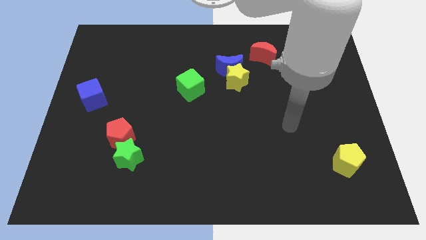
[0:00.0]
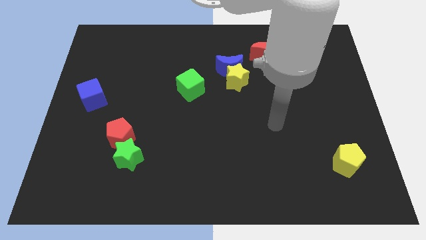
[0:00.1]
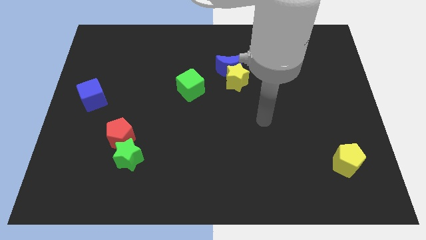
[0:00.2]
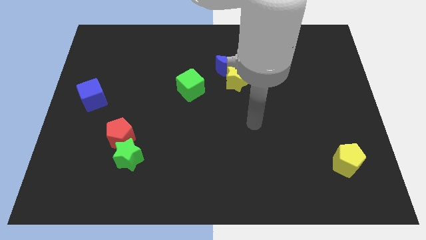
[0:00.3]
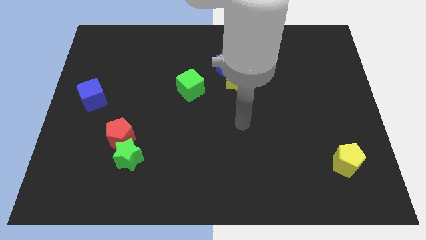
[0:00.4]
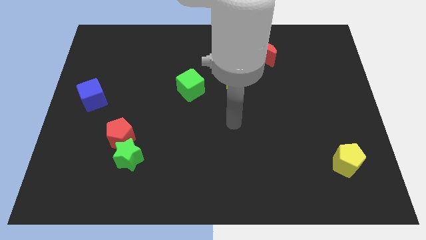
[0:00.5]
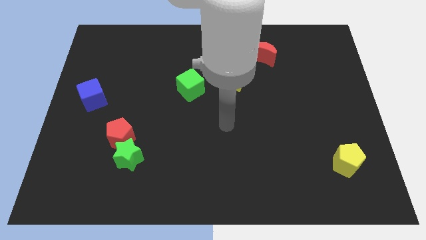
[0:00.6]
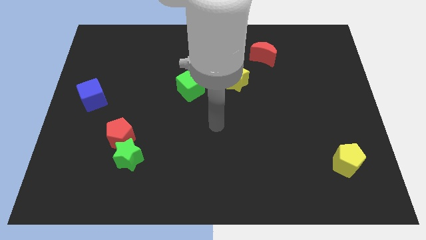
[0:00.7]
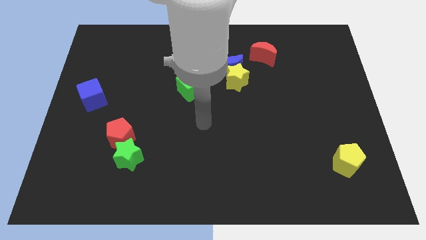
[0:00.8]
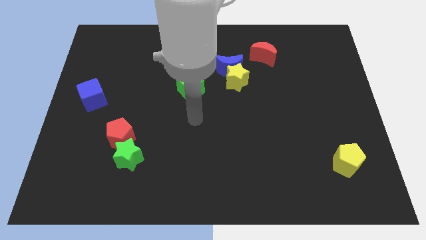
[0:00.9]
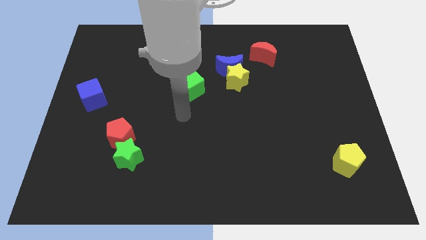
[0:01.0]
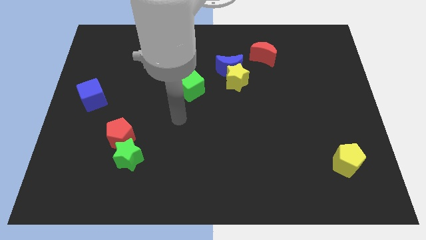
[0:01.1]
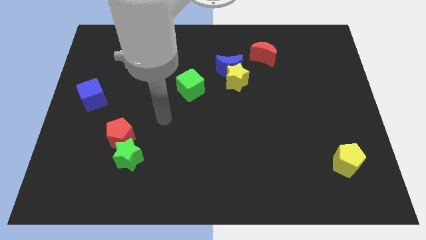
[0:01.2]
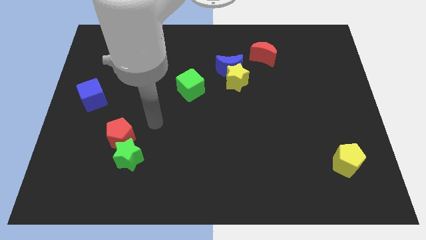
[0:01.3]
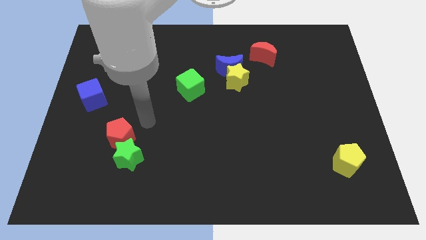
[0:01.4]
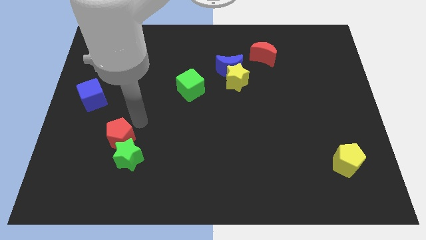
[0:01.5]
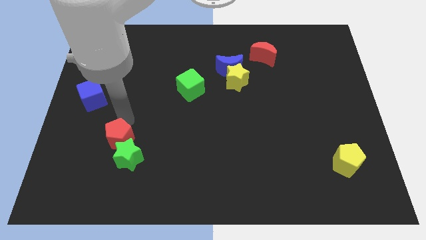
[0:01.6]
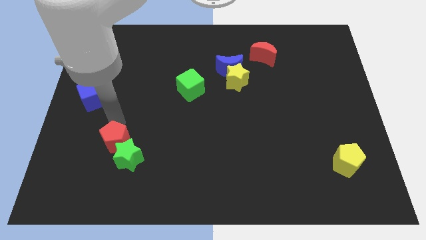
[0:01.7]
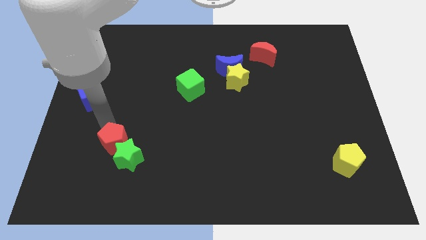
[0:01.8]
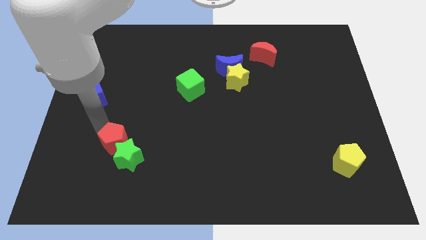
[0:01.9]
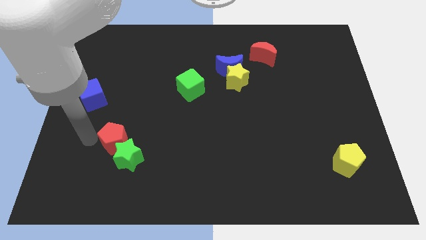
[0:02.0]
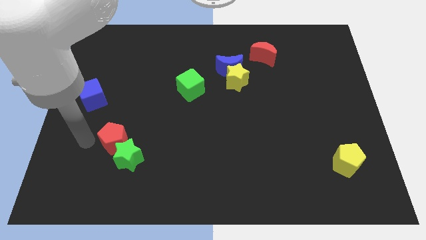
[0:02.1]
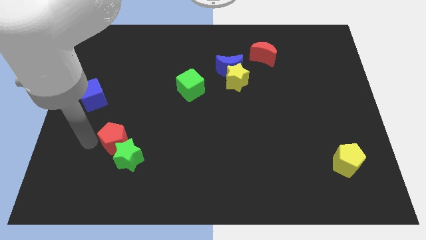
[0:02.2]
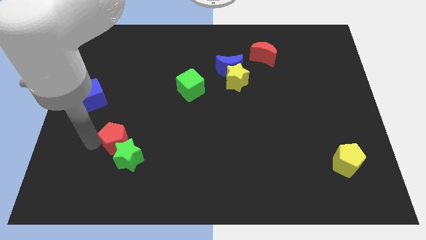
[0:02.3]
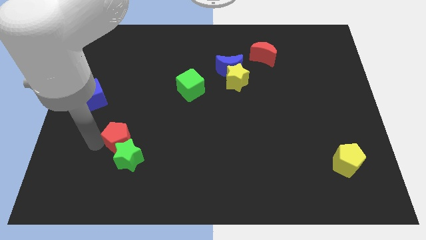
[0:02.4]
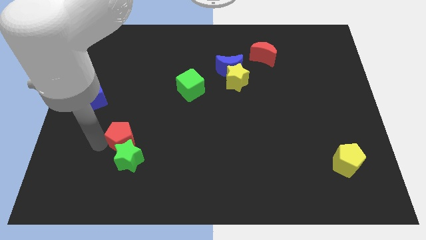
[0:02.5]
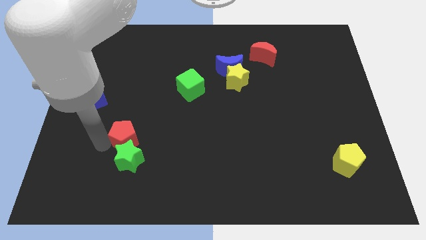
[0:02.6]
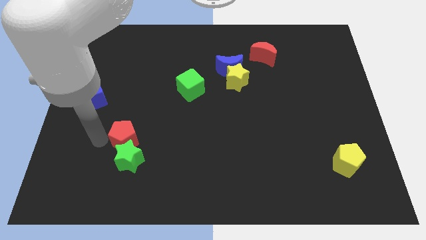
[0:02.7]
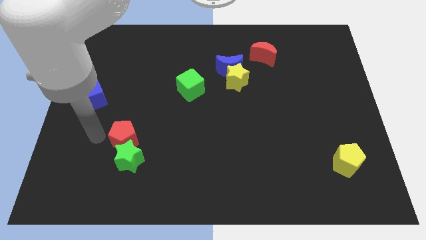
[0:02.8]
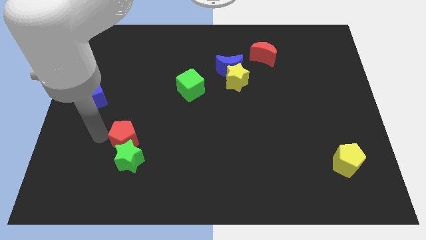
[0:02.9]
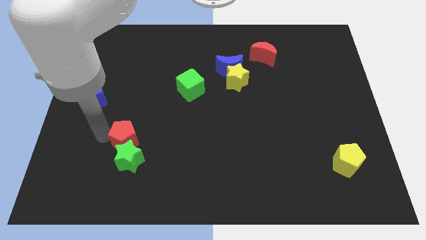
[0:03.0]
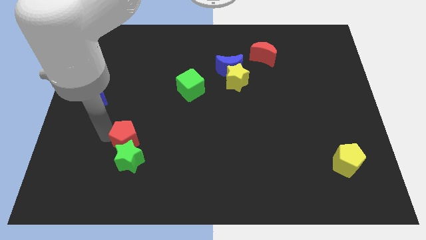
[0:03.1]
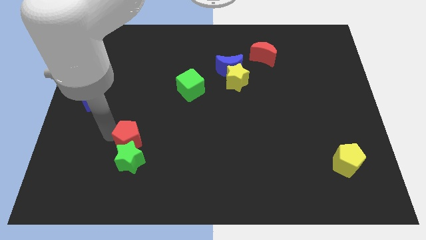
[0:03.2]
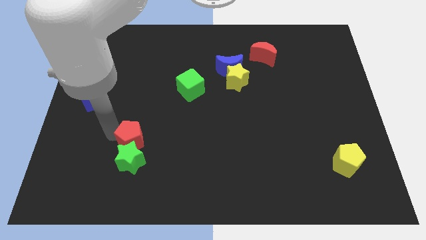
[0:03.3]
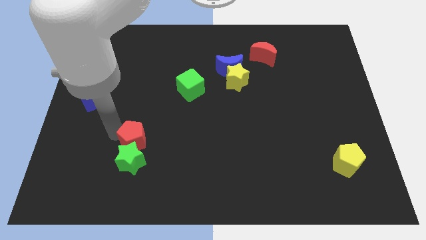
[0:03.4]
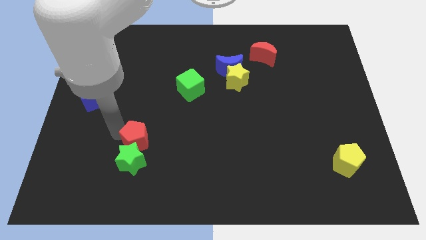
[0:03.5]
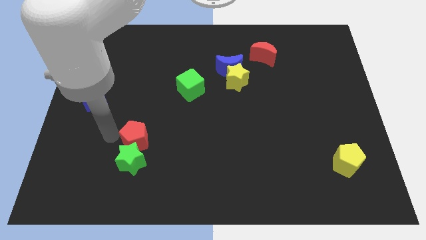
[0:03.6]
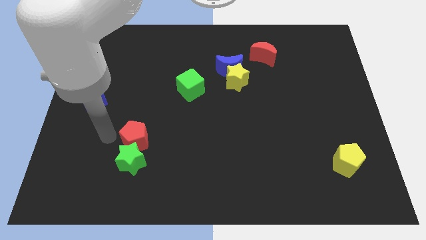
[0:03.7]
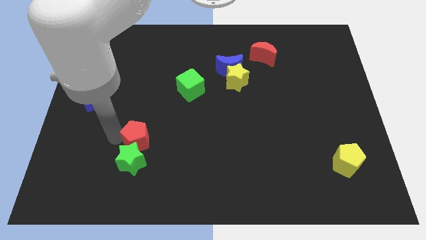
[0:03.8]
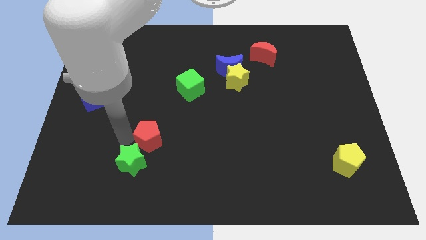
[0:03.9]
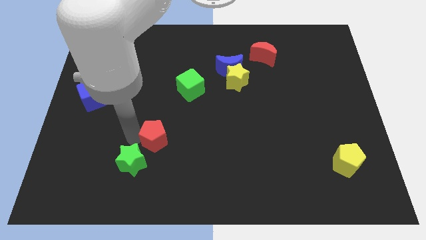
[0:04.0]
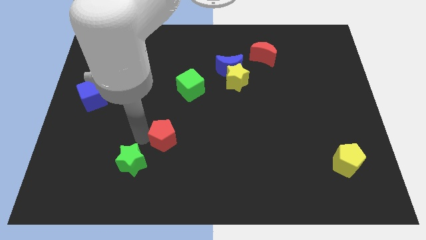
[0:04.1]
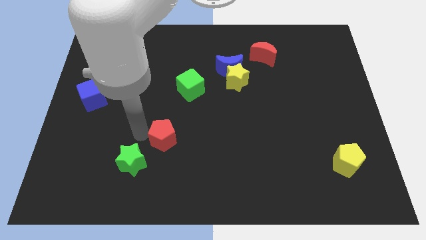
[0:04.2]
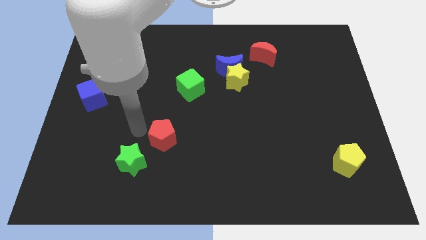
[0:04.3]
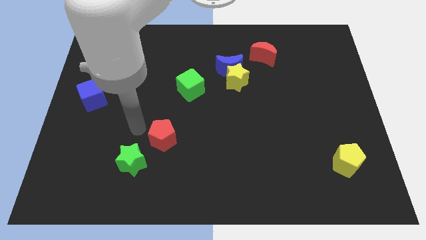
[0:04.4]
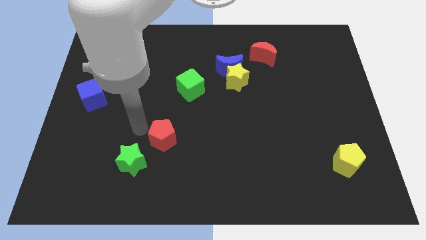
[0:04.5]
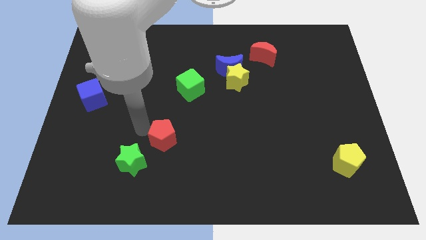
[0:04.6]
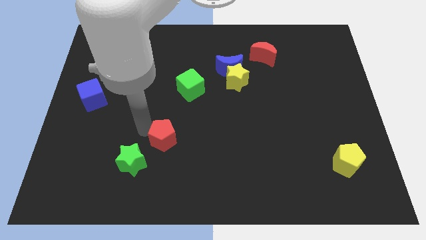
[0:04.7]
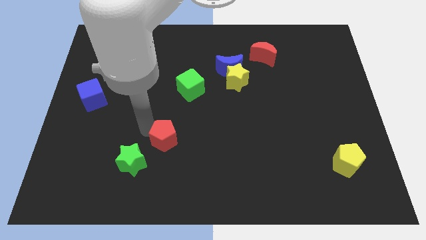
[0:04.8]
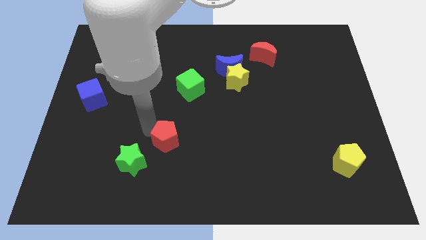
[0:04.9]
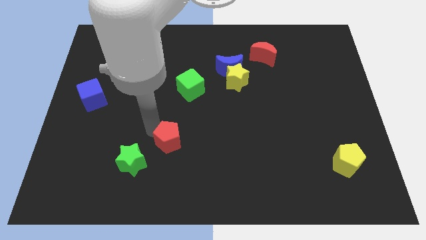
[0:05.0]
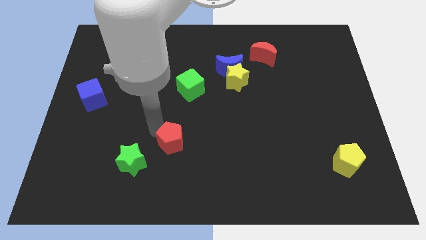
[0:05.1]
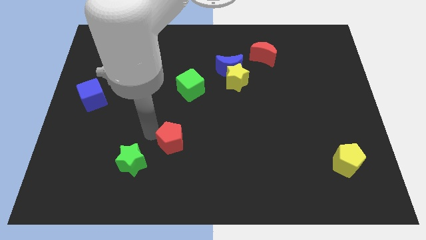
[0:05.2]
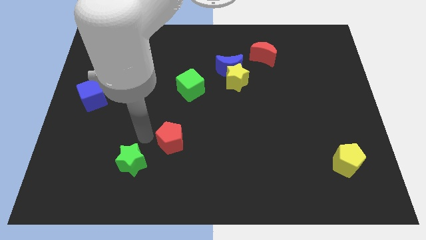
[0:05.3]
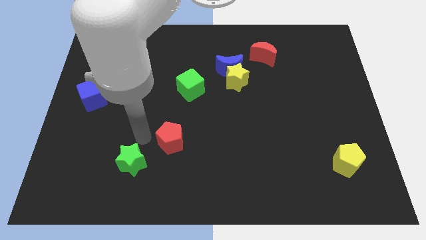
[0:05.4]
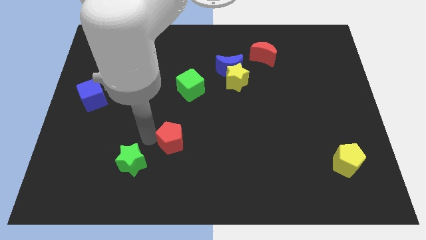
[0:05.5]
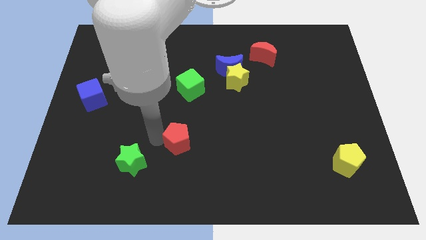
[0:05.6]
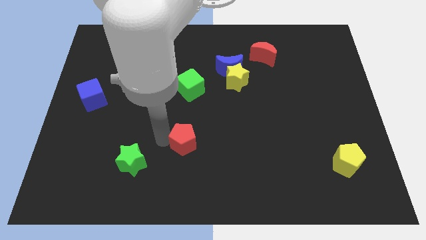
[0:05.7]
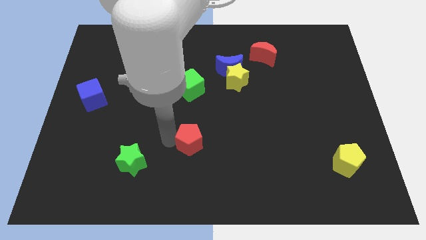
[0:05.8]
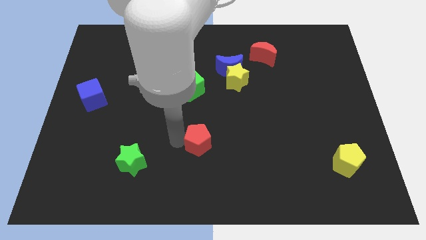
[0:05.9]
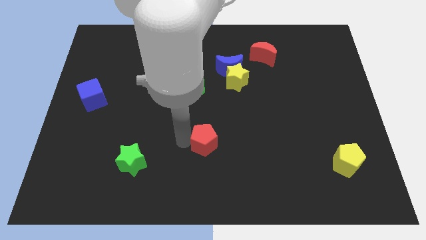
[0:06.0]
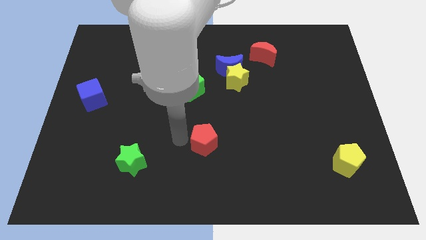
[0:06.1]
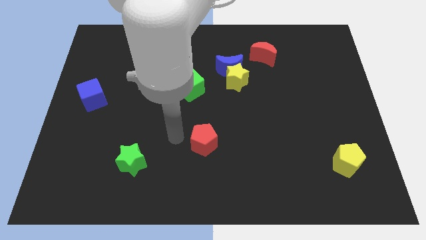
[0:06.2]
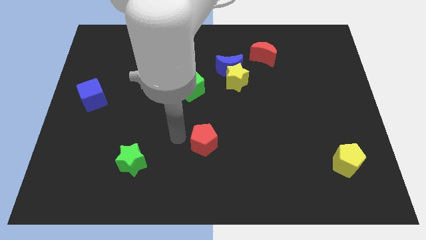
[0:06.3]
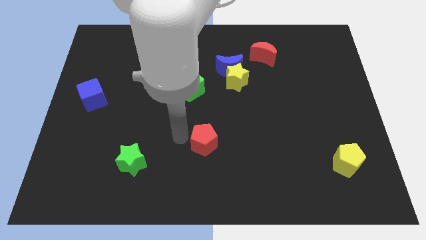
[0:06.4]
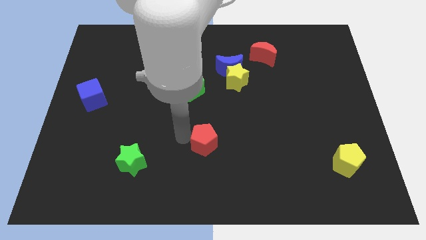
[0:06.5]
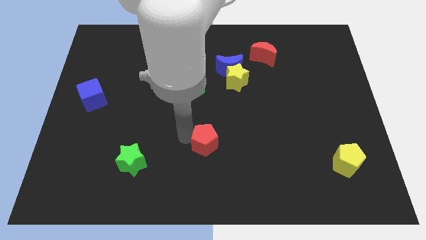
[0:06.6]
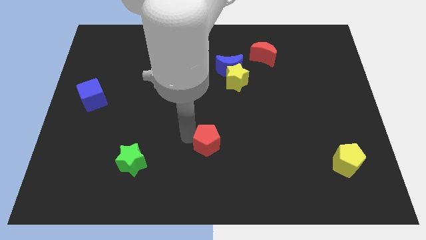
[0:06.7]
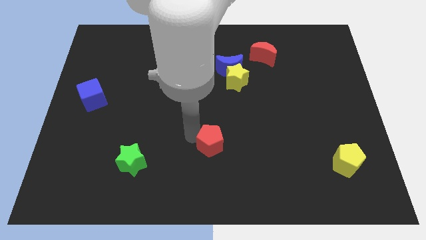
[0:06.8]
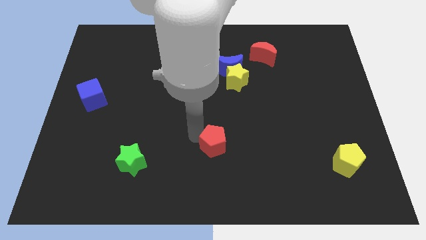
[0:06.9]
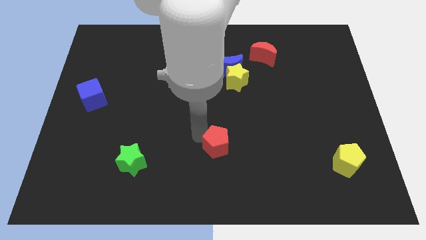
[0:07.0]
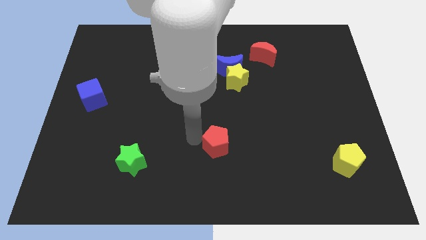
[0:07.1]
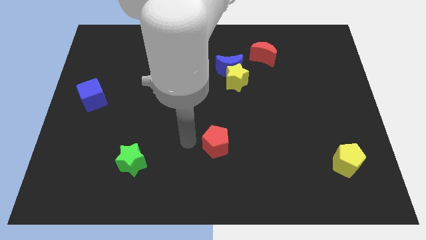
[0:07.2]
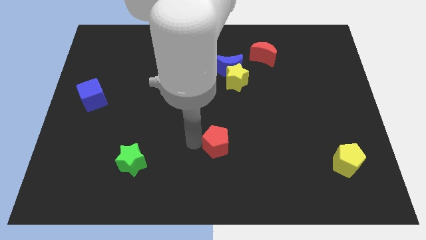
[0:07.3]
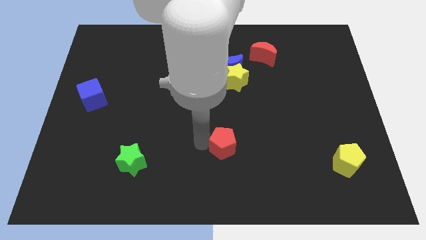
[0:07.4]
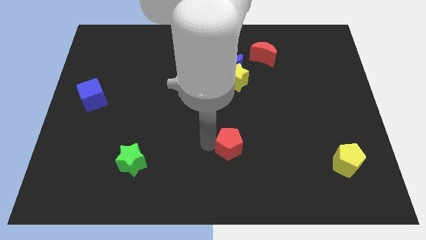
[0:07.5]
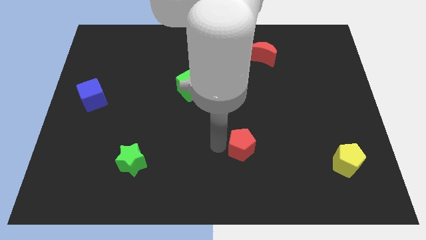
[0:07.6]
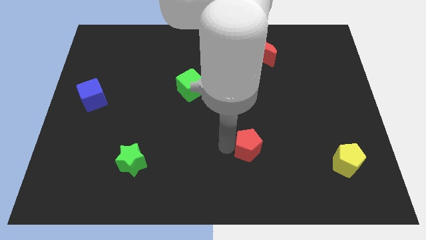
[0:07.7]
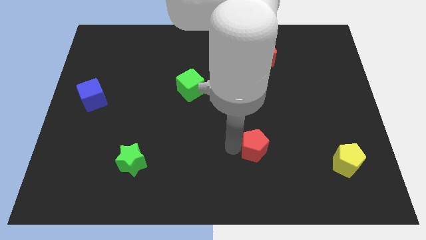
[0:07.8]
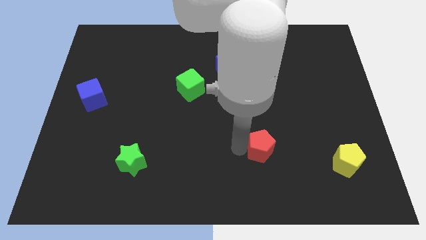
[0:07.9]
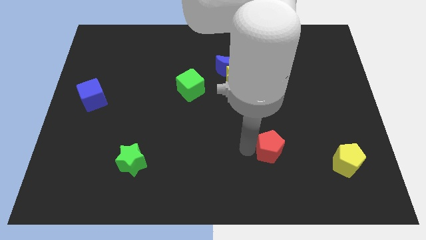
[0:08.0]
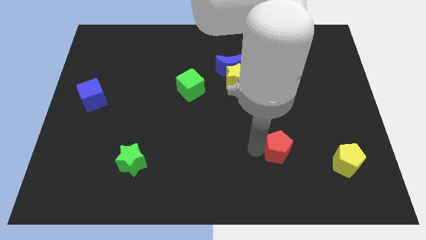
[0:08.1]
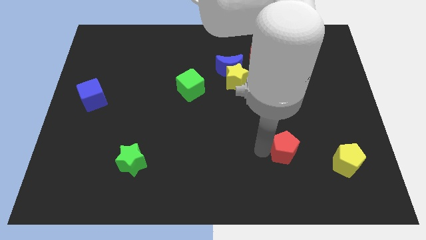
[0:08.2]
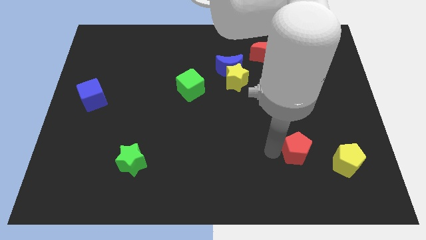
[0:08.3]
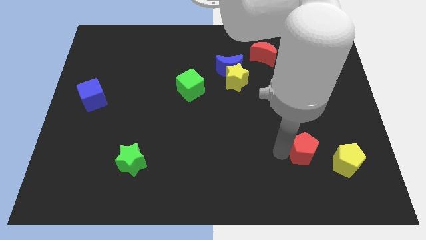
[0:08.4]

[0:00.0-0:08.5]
push the red pentagon diagonally up and to the left of the yellow pentagon
